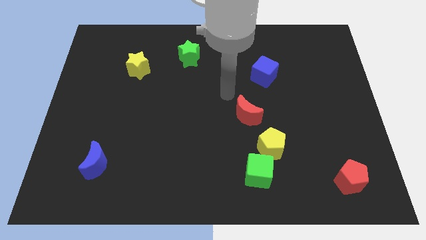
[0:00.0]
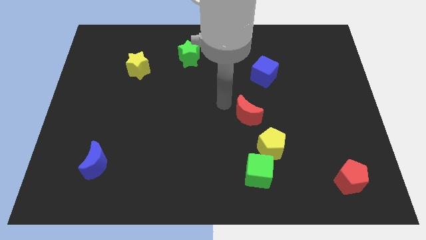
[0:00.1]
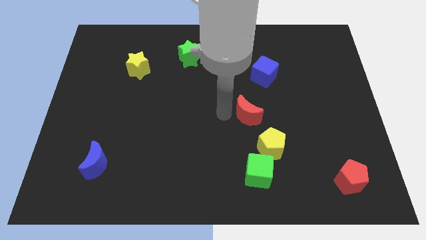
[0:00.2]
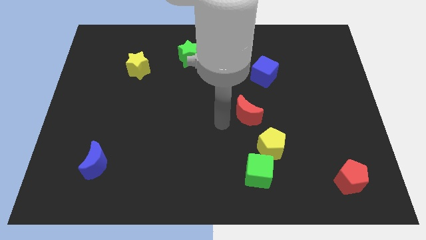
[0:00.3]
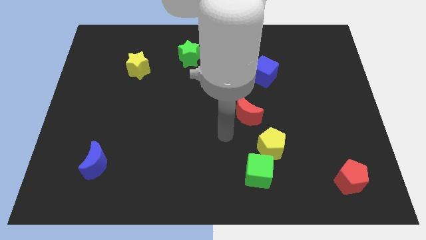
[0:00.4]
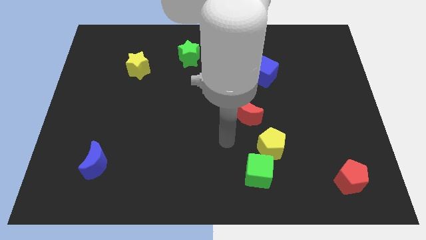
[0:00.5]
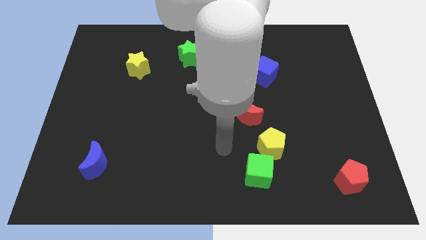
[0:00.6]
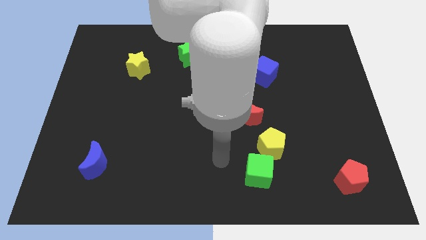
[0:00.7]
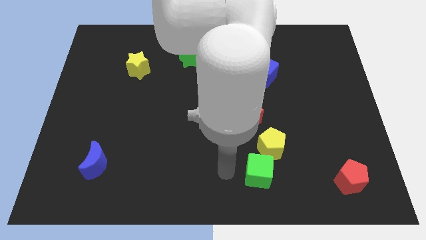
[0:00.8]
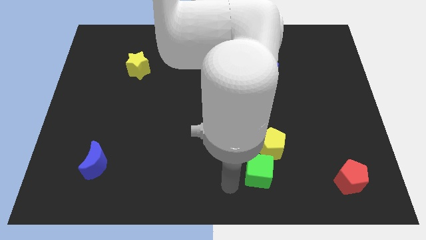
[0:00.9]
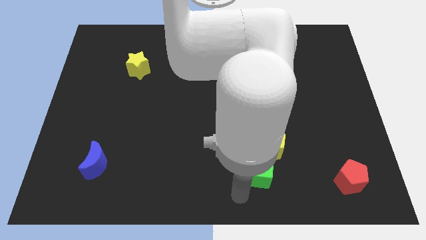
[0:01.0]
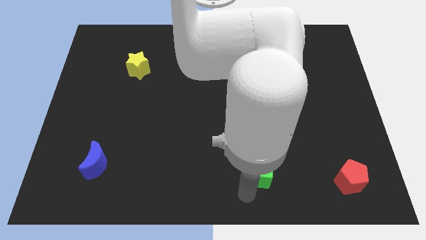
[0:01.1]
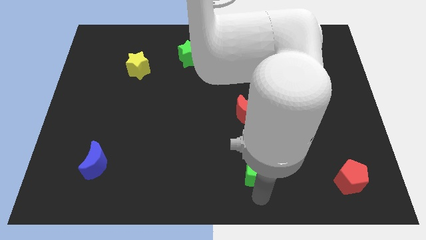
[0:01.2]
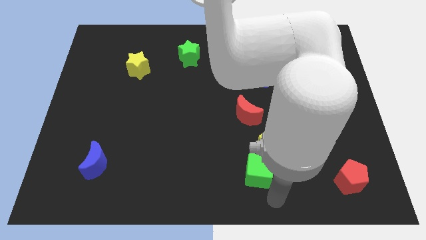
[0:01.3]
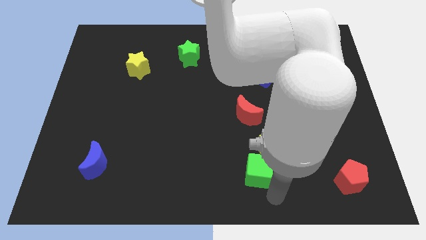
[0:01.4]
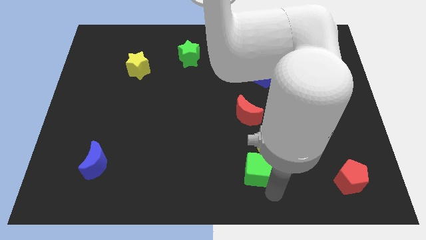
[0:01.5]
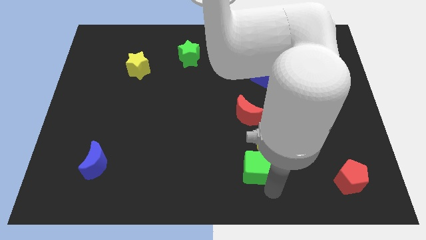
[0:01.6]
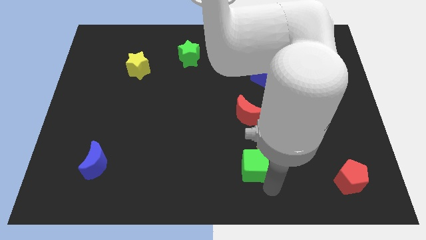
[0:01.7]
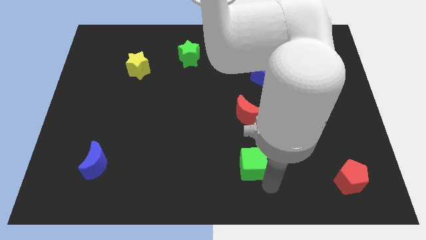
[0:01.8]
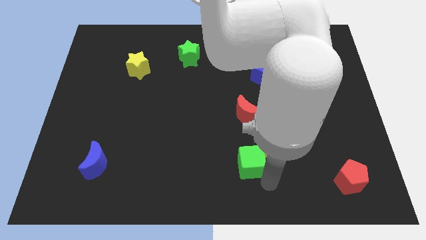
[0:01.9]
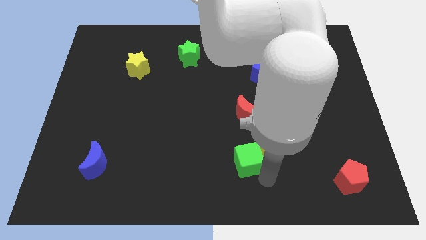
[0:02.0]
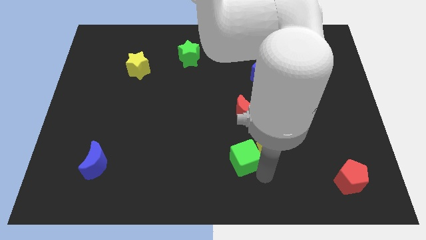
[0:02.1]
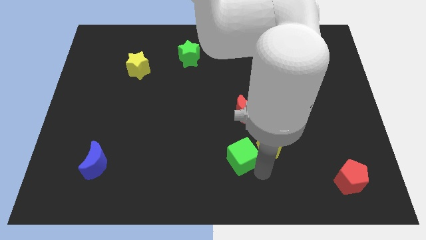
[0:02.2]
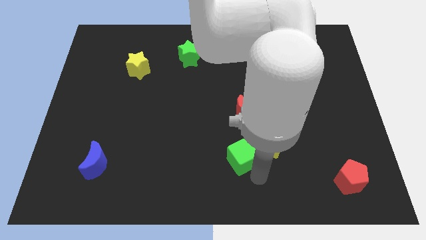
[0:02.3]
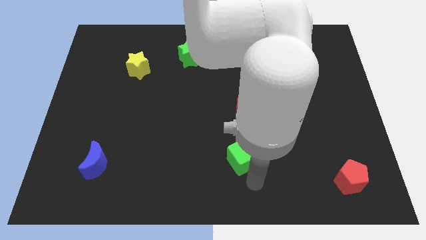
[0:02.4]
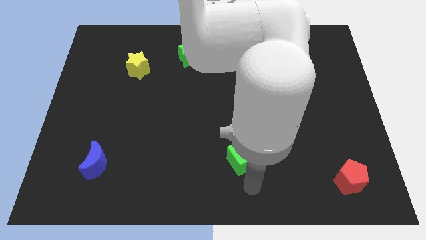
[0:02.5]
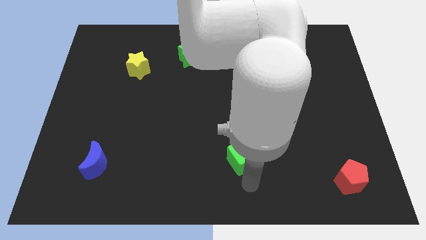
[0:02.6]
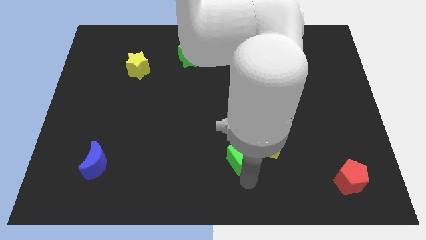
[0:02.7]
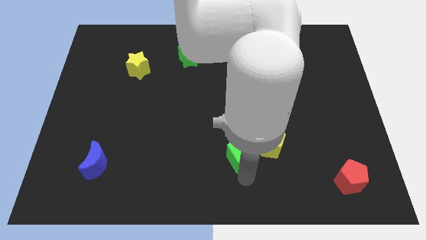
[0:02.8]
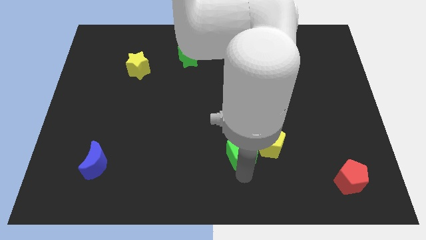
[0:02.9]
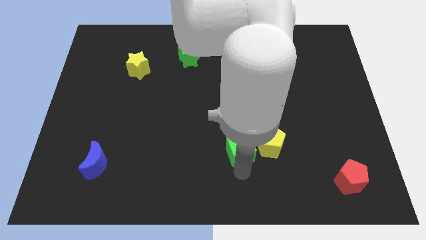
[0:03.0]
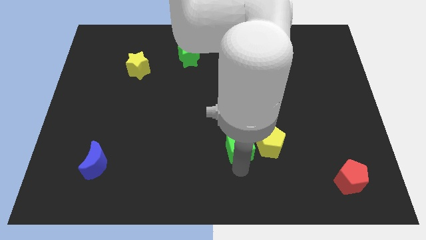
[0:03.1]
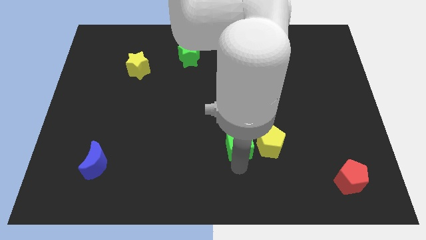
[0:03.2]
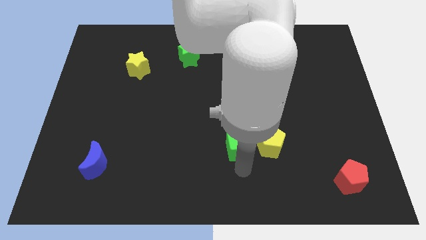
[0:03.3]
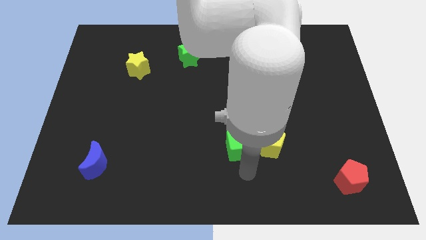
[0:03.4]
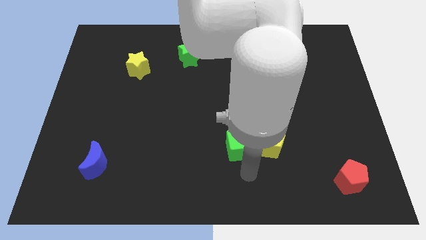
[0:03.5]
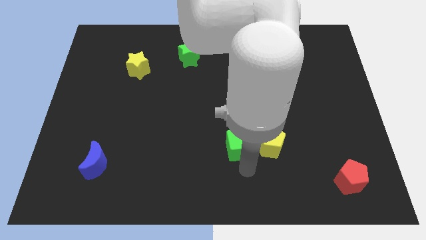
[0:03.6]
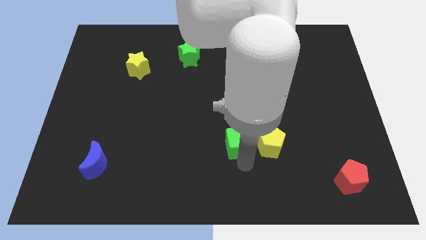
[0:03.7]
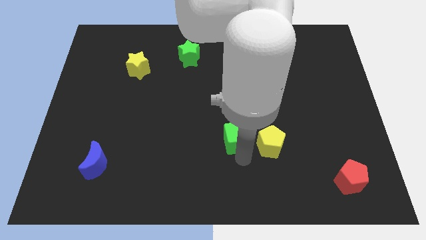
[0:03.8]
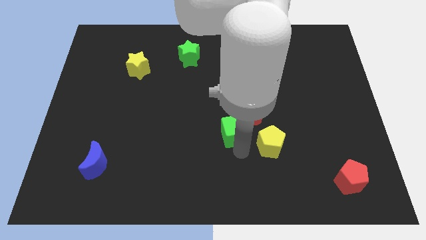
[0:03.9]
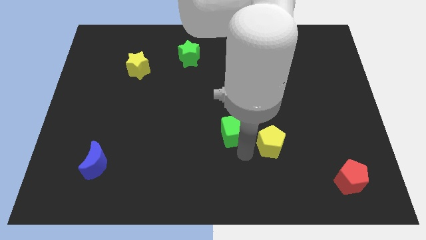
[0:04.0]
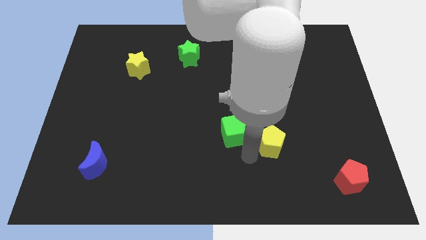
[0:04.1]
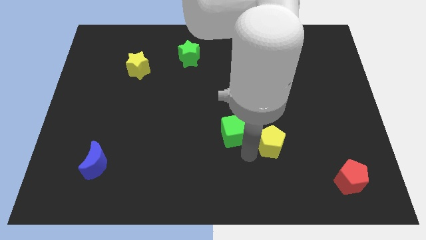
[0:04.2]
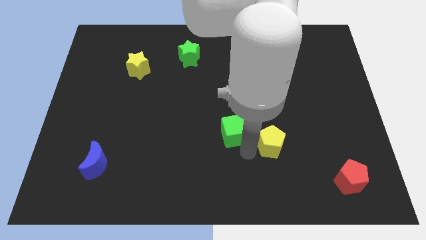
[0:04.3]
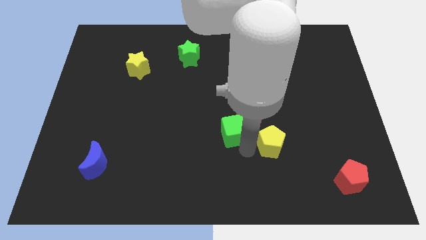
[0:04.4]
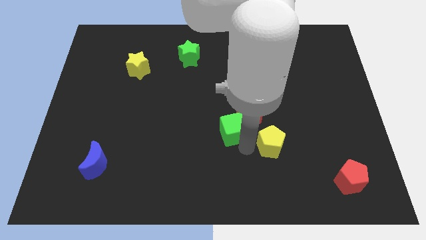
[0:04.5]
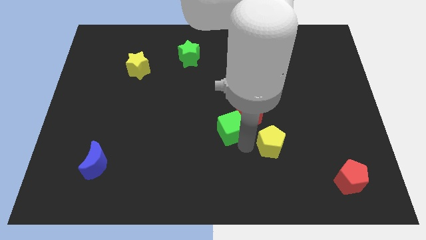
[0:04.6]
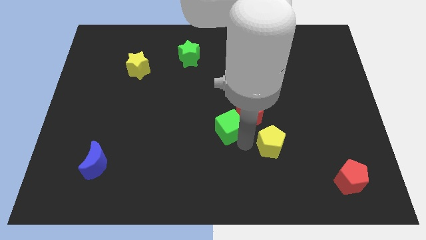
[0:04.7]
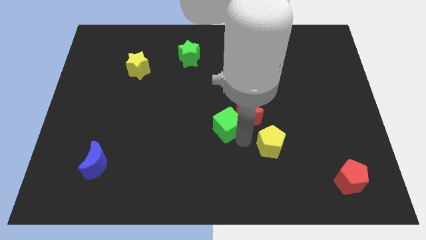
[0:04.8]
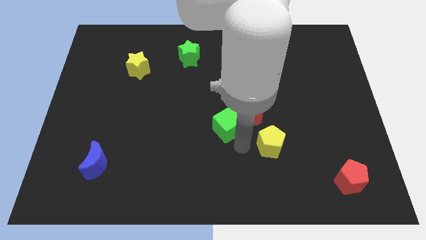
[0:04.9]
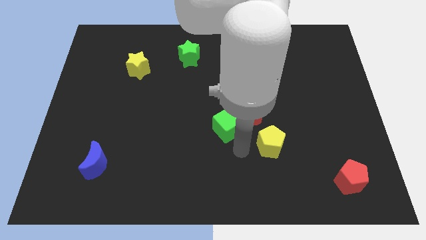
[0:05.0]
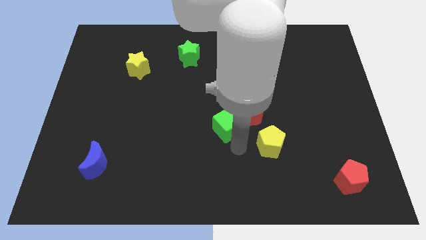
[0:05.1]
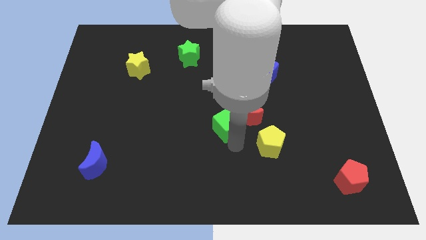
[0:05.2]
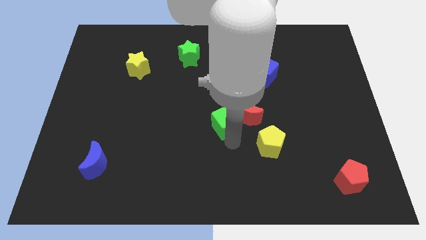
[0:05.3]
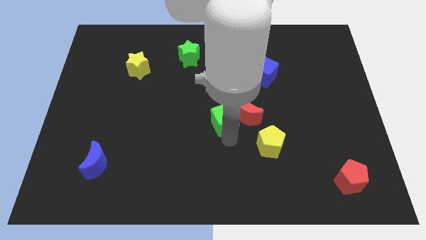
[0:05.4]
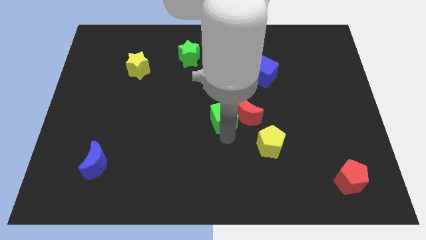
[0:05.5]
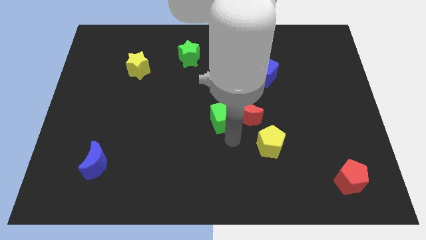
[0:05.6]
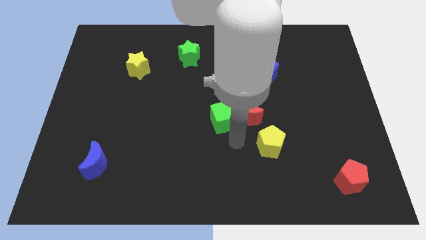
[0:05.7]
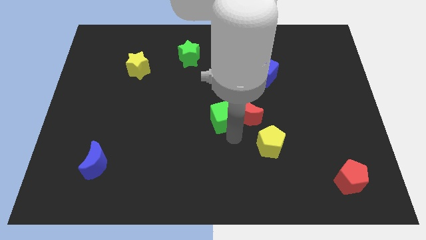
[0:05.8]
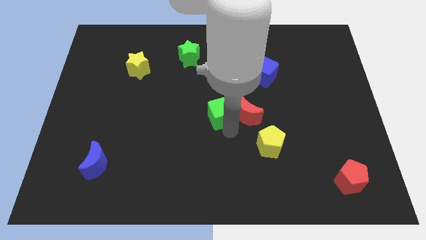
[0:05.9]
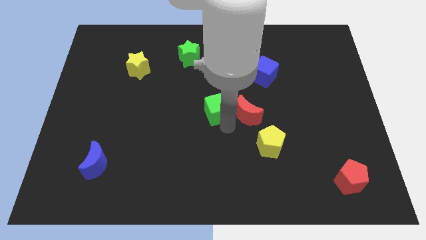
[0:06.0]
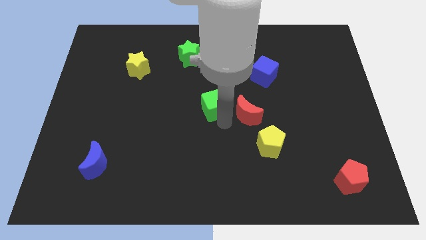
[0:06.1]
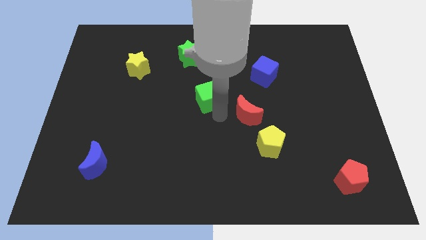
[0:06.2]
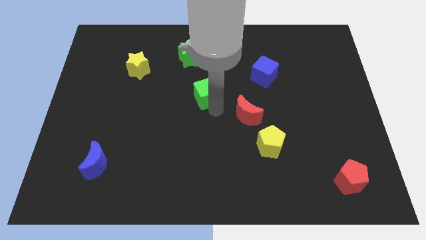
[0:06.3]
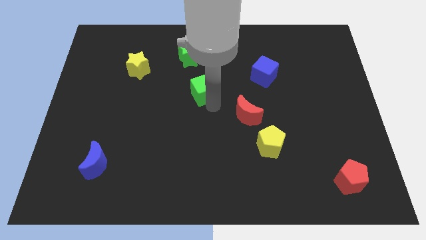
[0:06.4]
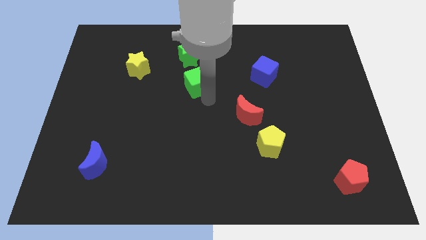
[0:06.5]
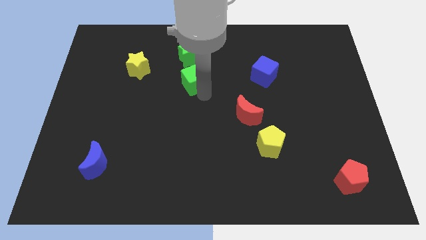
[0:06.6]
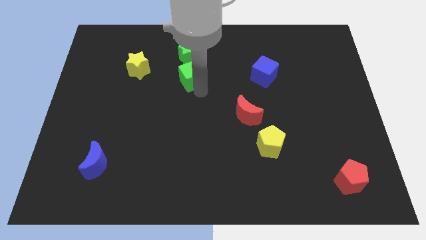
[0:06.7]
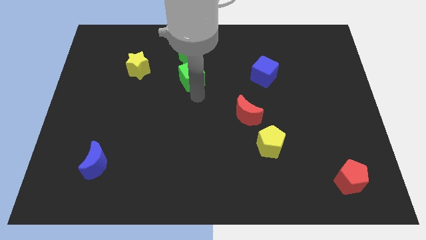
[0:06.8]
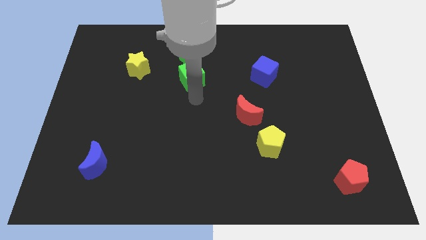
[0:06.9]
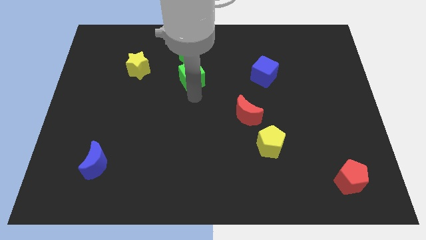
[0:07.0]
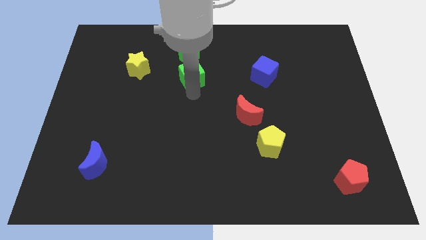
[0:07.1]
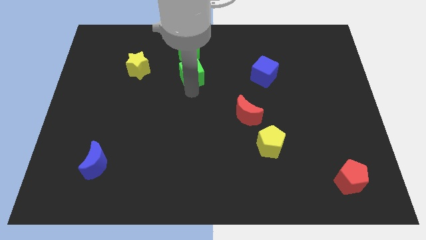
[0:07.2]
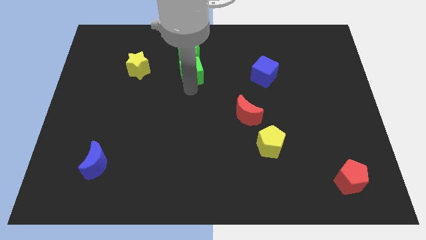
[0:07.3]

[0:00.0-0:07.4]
move the green cube towards the green star

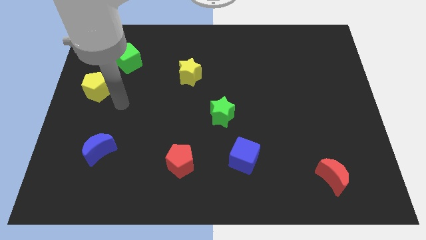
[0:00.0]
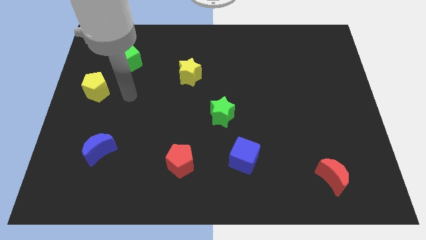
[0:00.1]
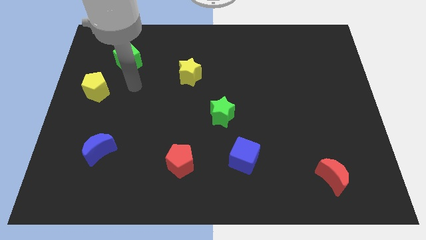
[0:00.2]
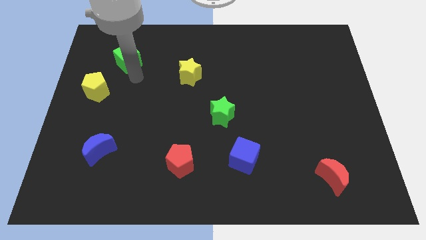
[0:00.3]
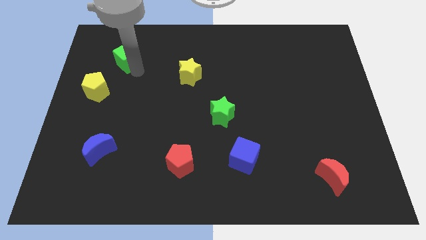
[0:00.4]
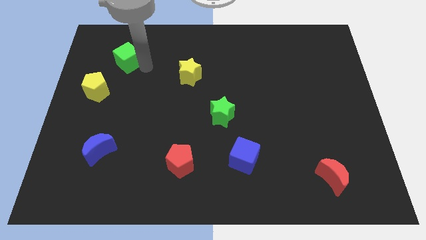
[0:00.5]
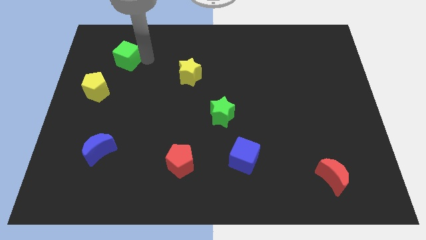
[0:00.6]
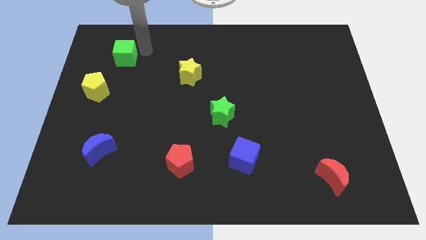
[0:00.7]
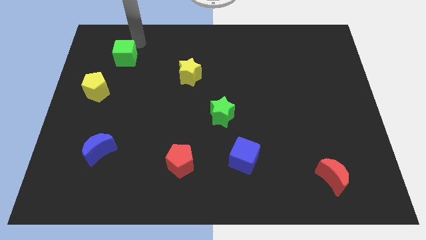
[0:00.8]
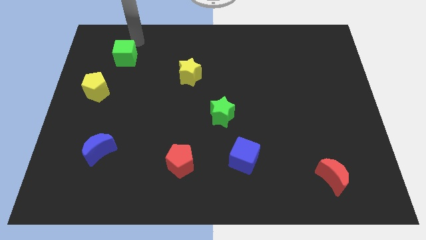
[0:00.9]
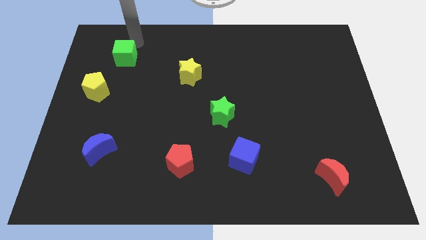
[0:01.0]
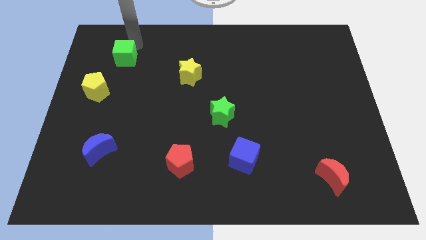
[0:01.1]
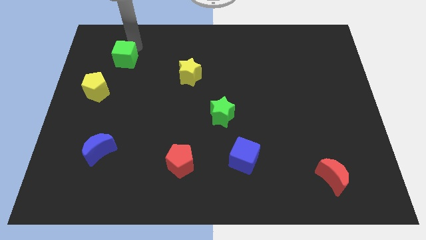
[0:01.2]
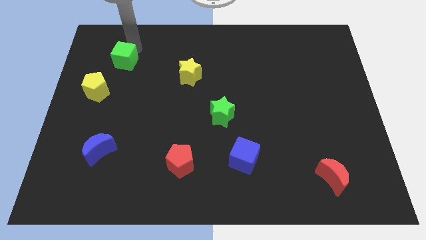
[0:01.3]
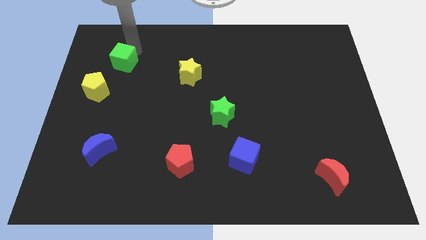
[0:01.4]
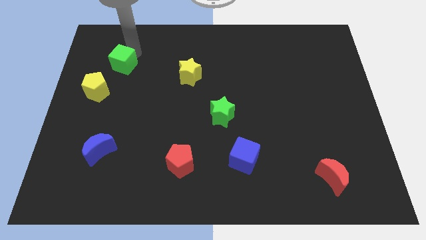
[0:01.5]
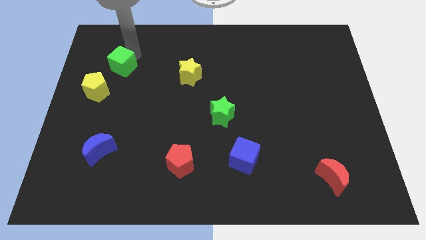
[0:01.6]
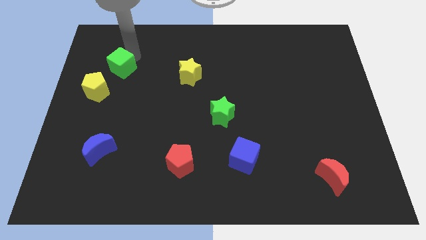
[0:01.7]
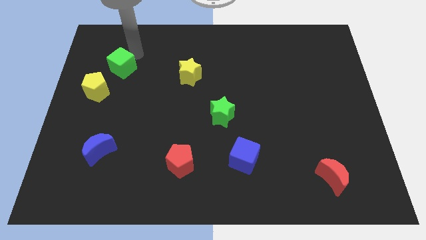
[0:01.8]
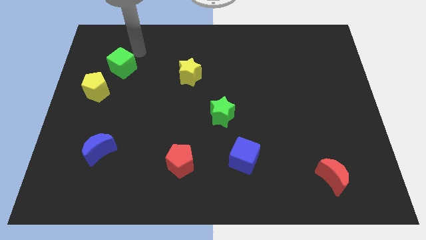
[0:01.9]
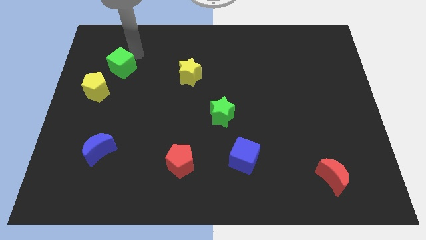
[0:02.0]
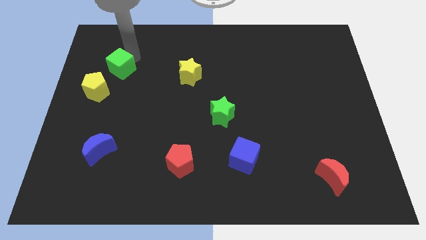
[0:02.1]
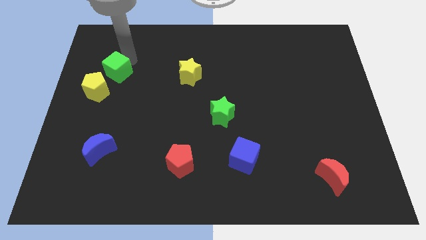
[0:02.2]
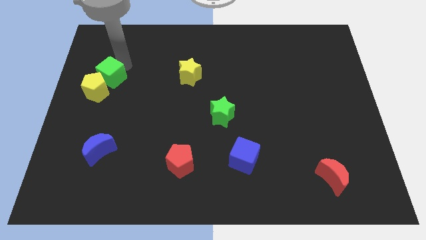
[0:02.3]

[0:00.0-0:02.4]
push the green cube next to the yellow pentagon
